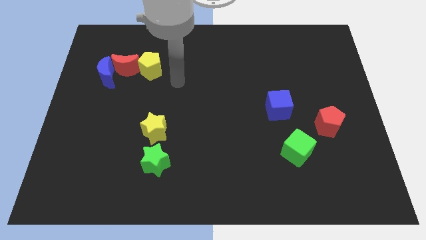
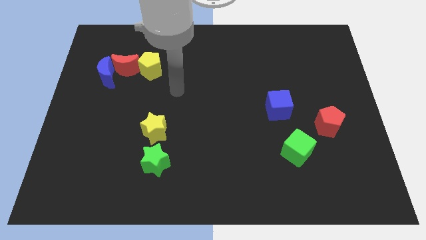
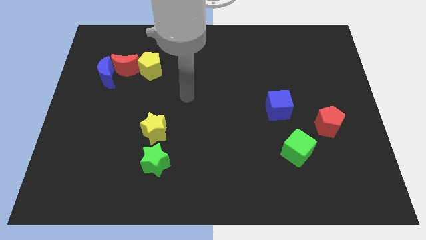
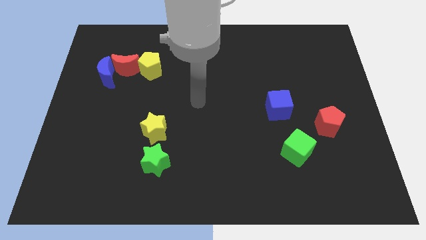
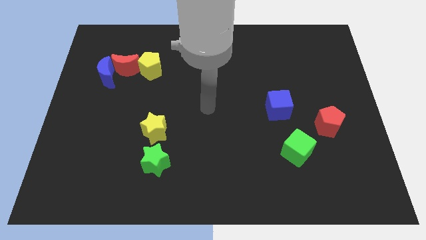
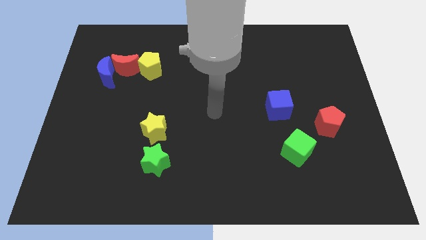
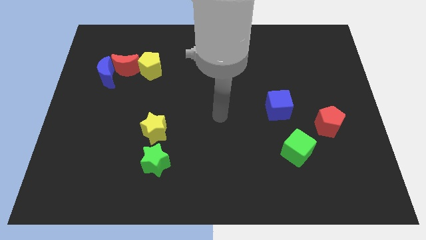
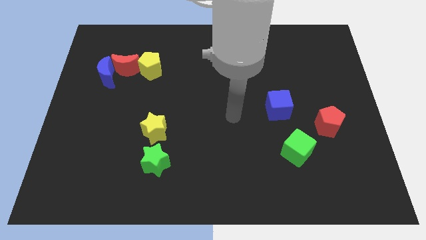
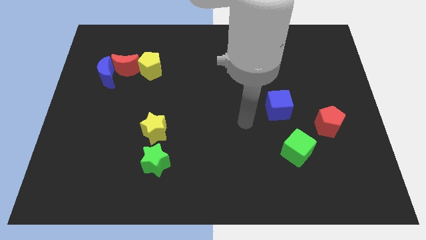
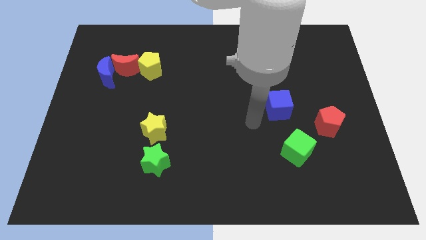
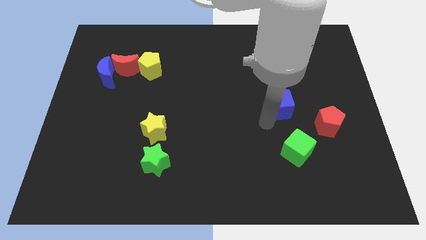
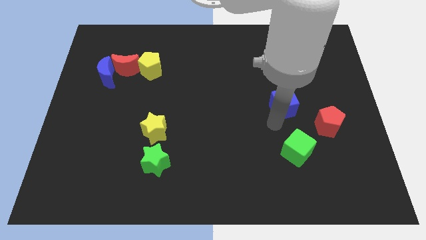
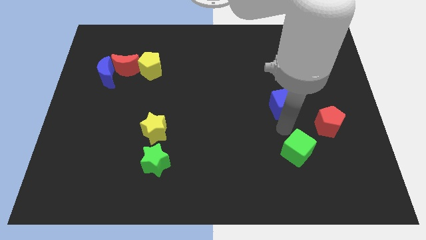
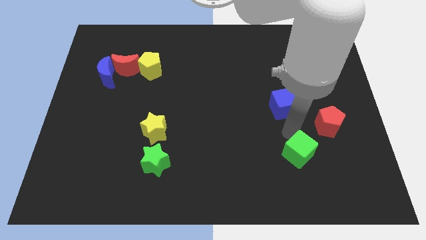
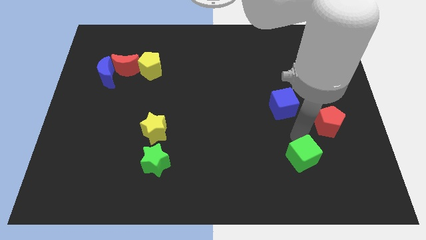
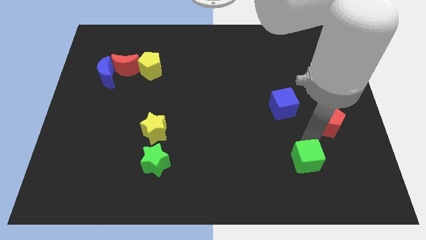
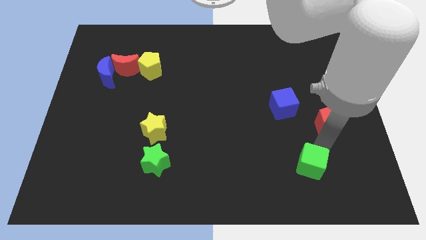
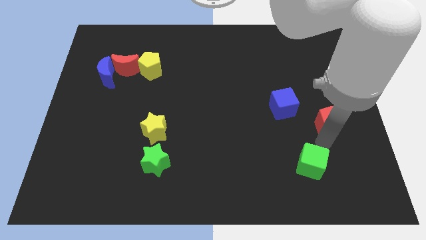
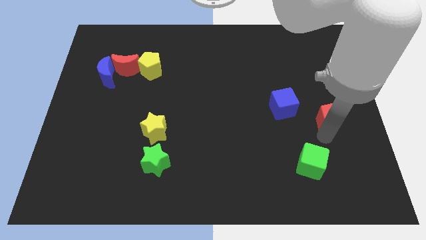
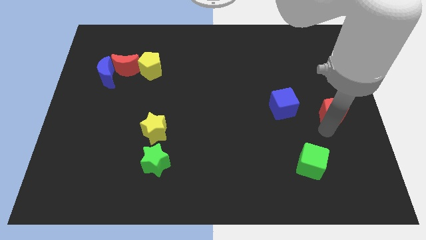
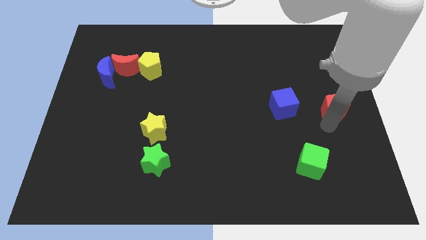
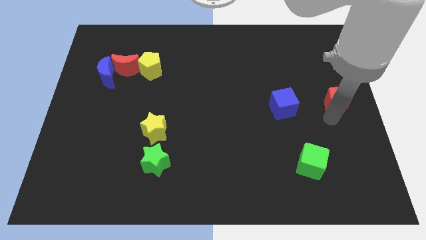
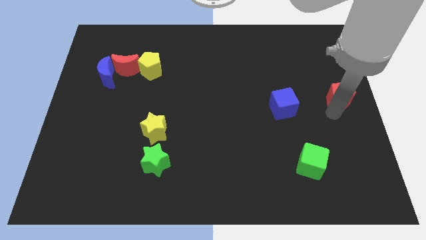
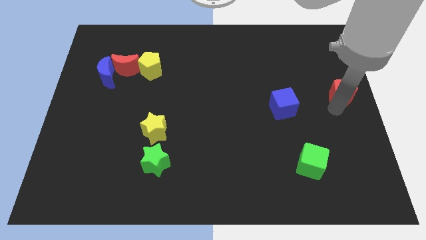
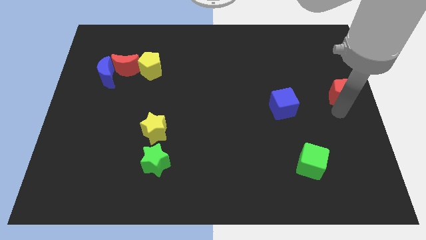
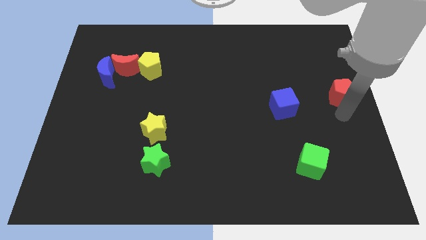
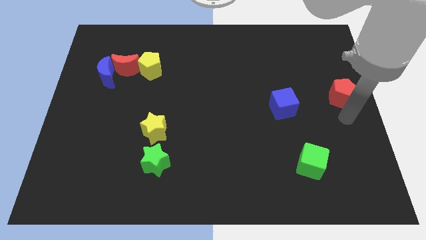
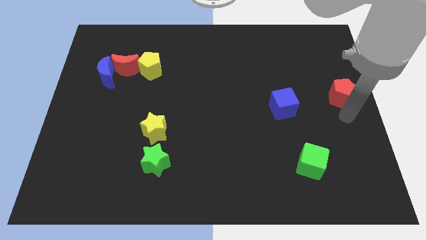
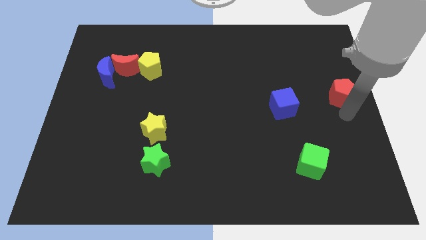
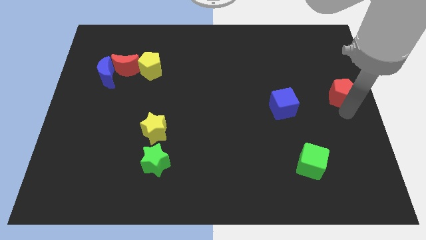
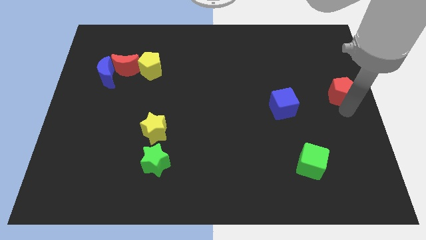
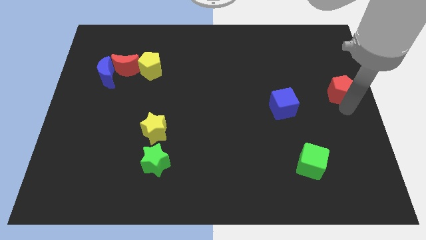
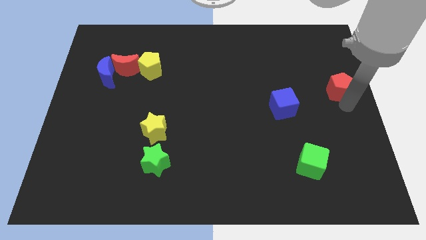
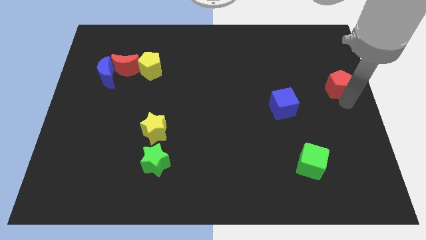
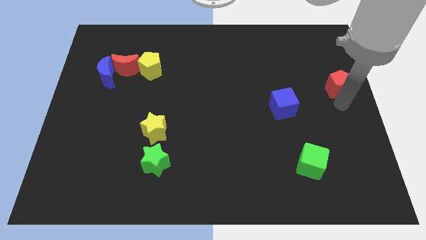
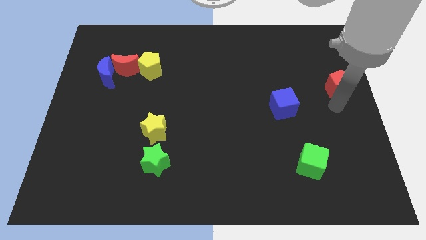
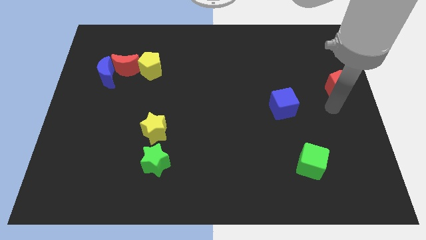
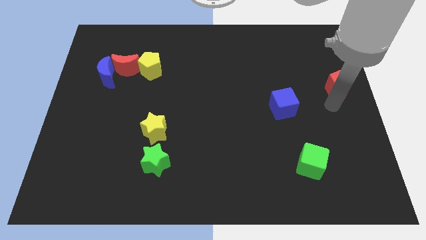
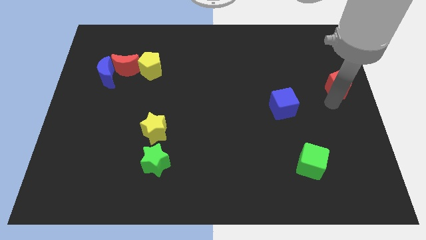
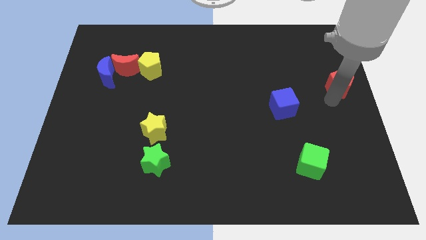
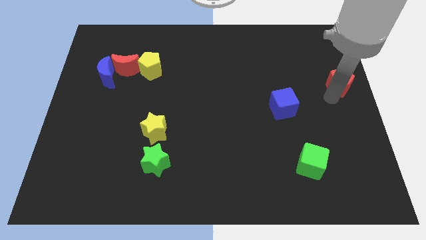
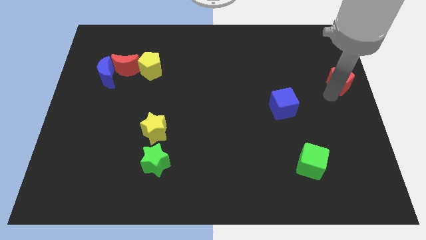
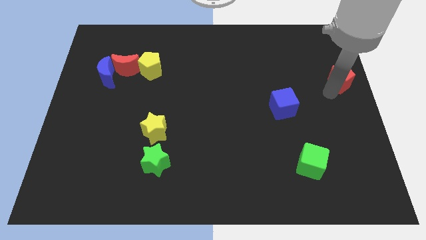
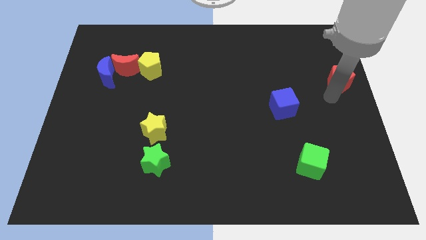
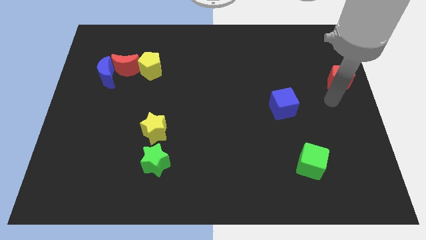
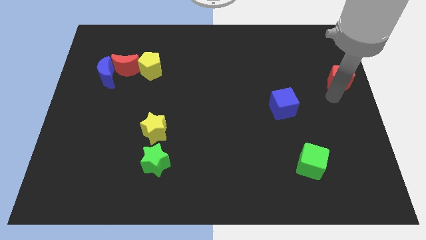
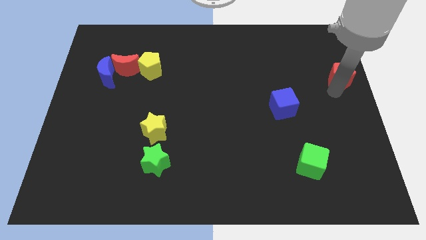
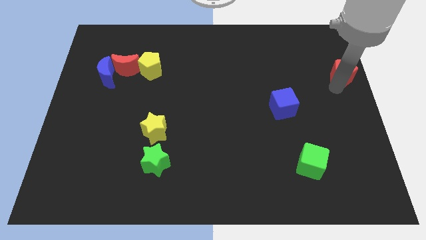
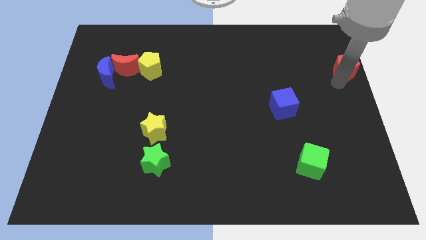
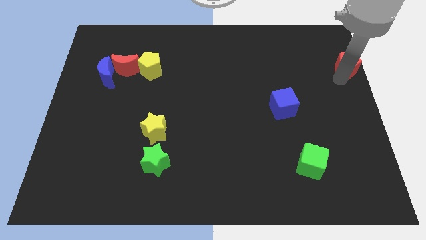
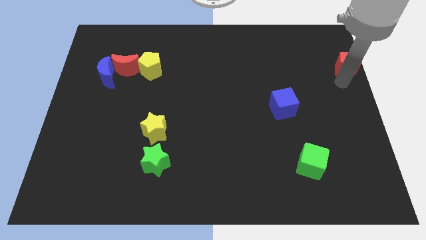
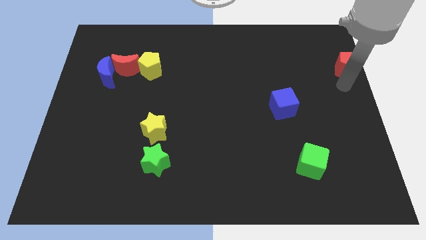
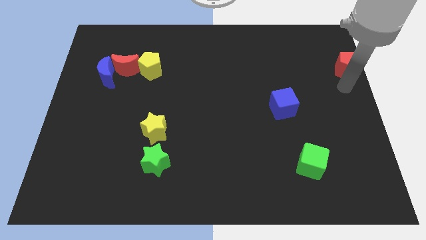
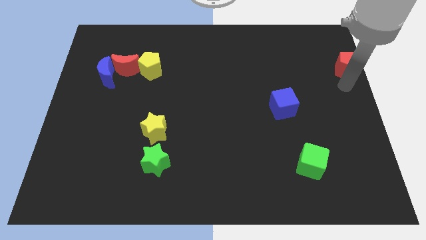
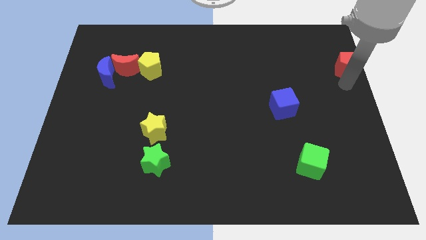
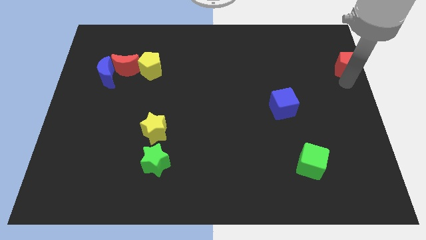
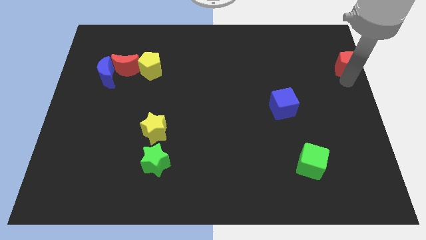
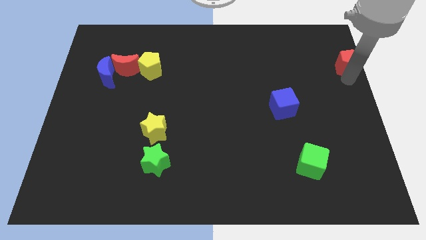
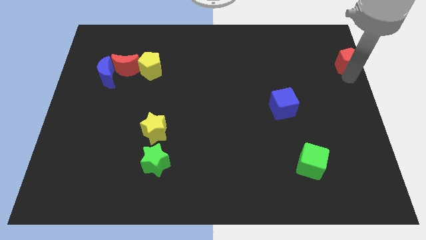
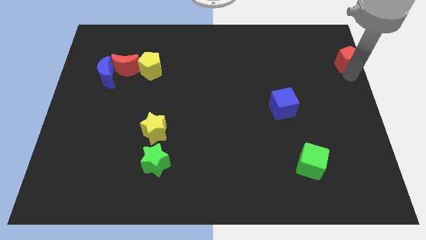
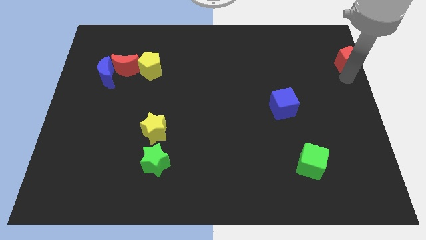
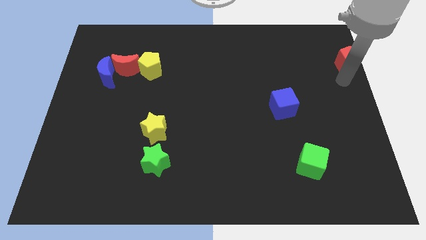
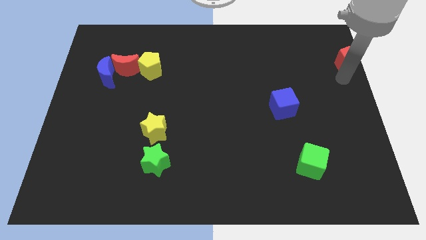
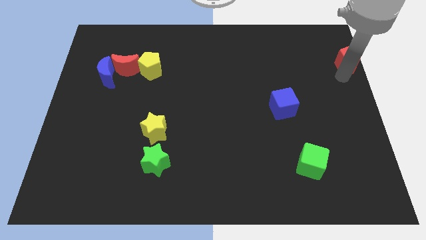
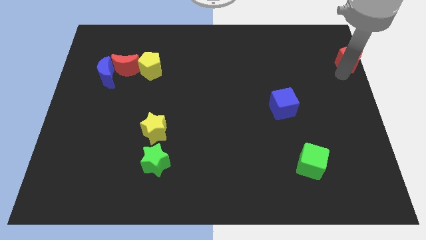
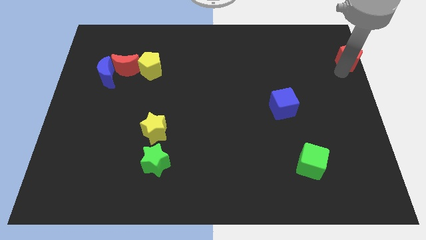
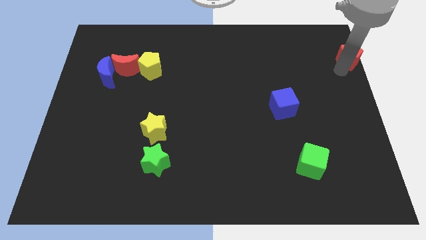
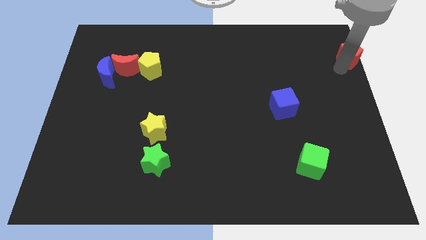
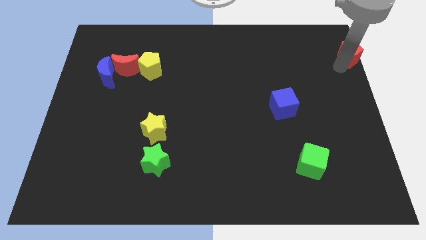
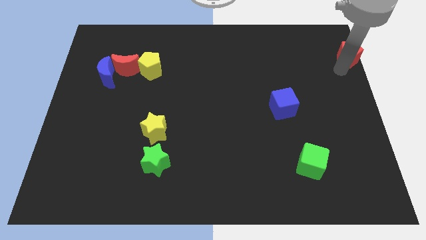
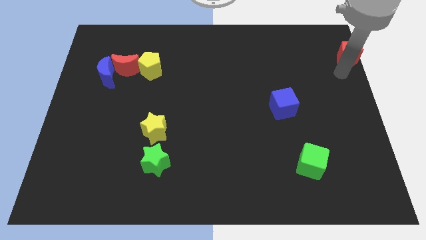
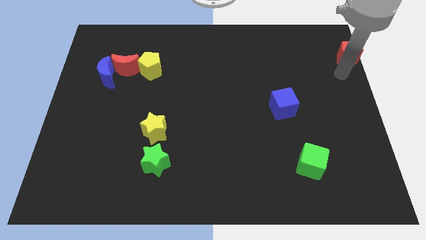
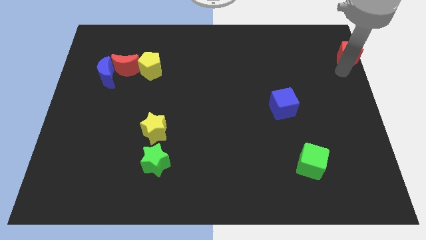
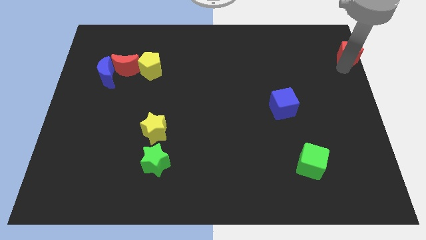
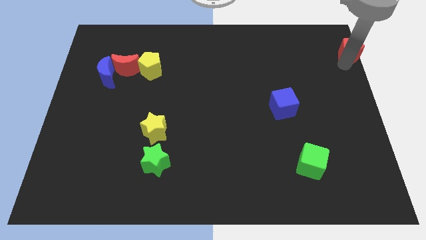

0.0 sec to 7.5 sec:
slide the red pentagon to the top right of the board
